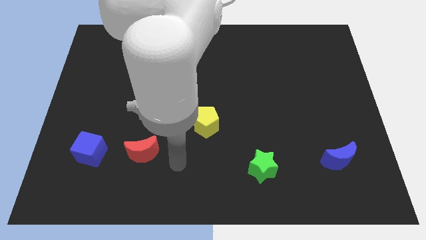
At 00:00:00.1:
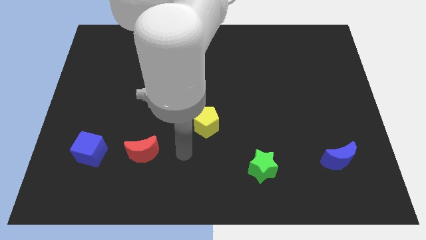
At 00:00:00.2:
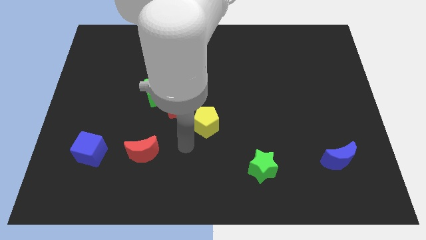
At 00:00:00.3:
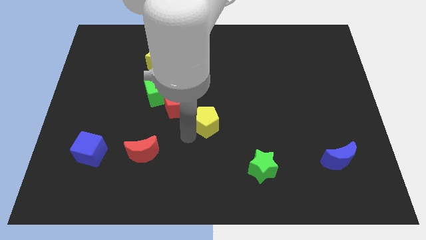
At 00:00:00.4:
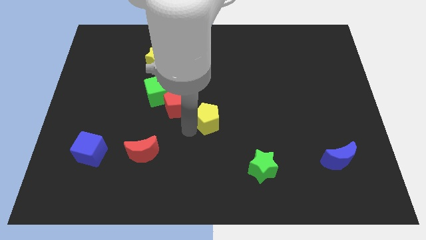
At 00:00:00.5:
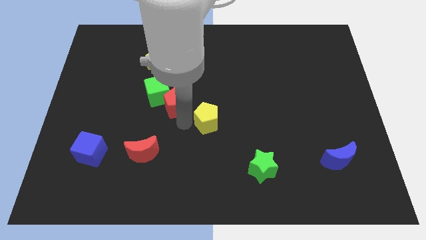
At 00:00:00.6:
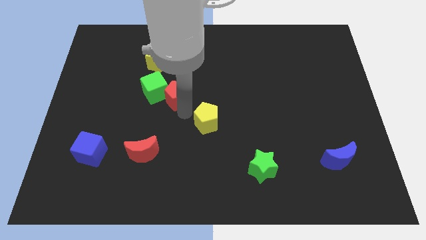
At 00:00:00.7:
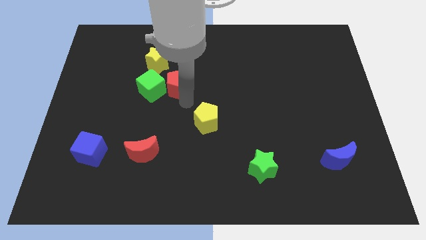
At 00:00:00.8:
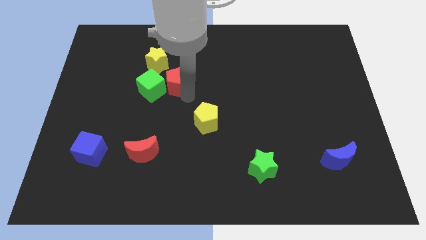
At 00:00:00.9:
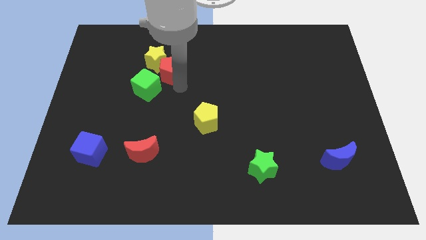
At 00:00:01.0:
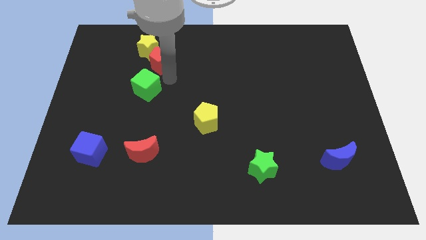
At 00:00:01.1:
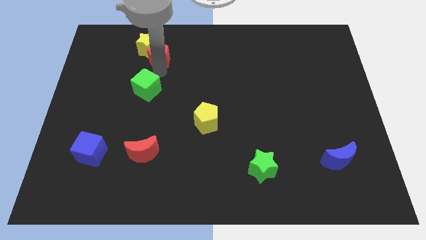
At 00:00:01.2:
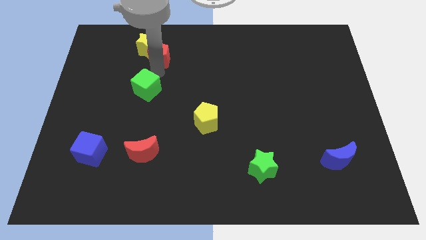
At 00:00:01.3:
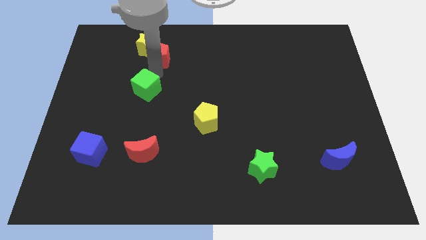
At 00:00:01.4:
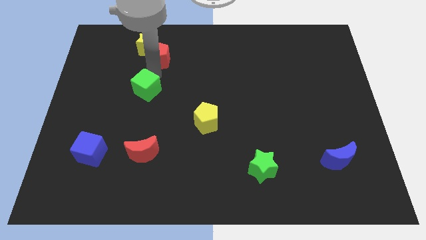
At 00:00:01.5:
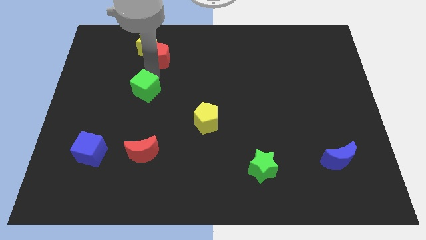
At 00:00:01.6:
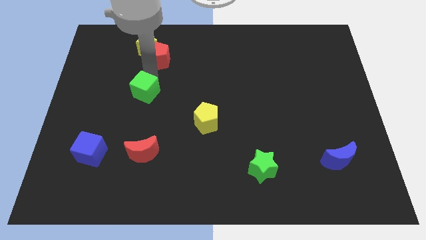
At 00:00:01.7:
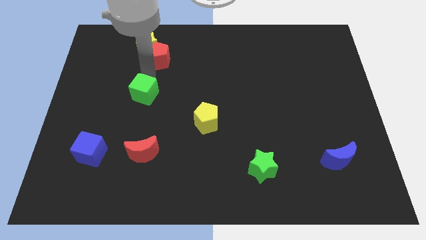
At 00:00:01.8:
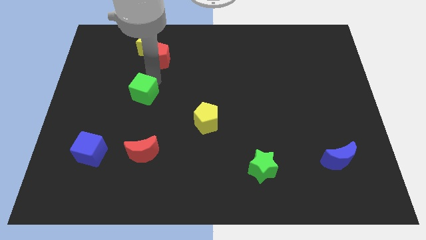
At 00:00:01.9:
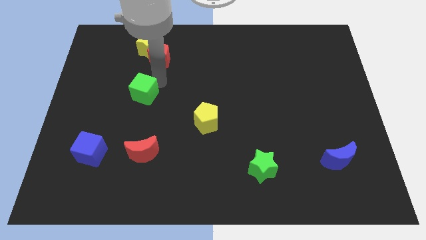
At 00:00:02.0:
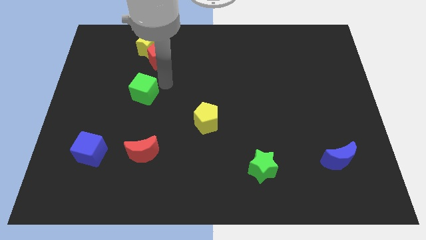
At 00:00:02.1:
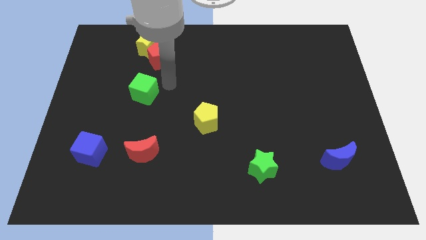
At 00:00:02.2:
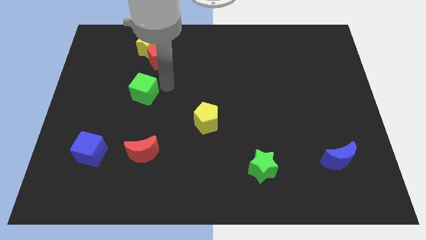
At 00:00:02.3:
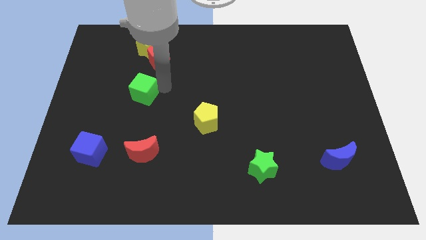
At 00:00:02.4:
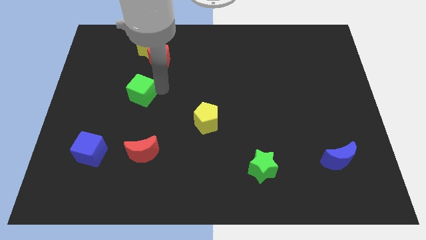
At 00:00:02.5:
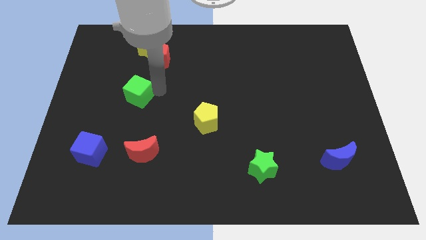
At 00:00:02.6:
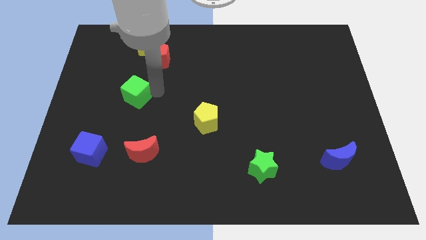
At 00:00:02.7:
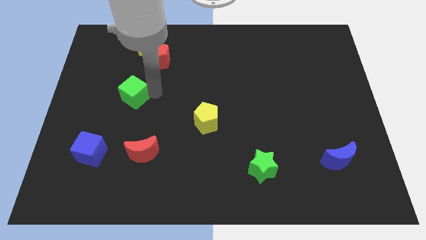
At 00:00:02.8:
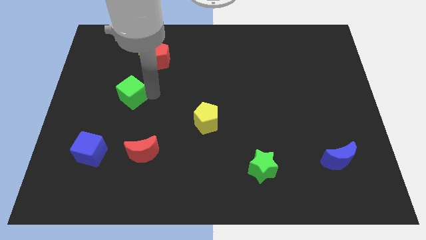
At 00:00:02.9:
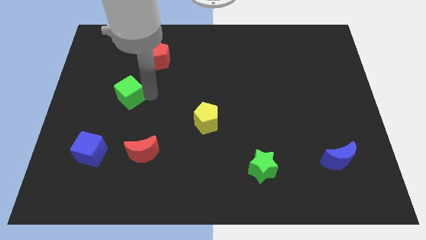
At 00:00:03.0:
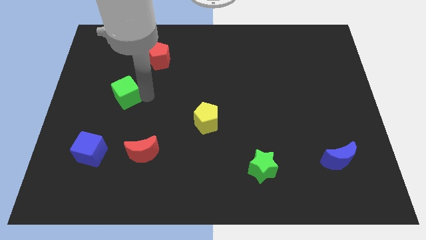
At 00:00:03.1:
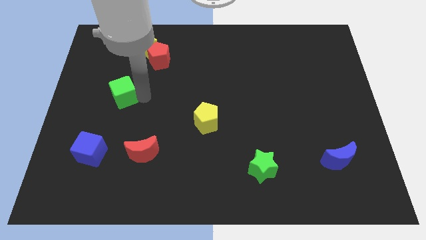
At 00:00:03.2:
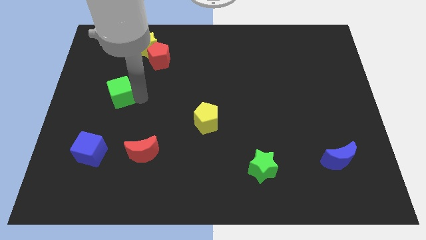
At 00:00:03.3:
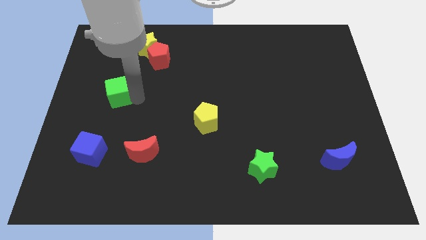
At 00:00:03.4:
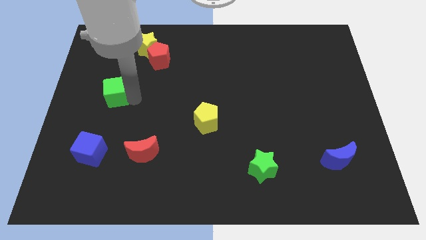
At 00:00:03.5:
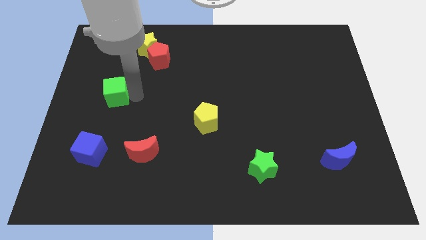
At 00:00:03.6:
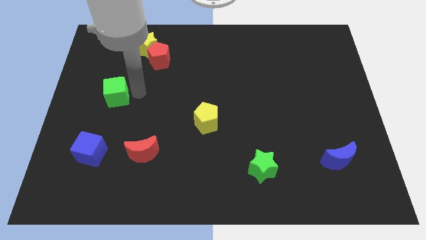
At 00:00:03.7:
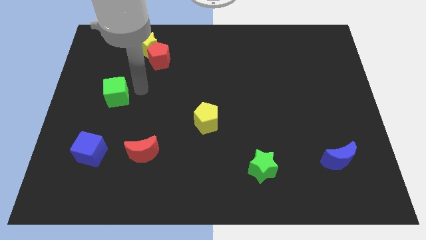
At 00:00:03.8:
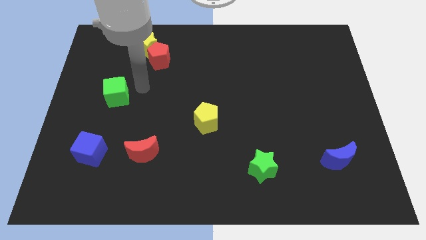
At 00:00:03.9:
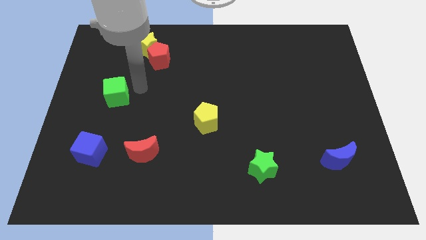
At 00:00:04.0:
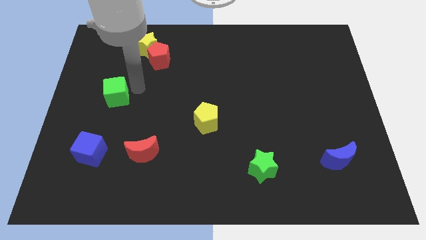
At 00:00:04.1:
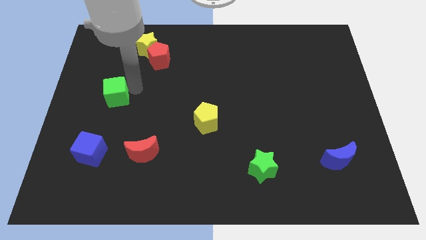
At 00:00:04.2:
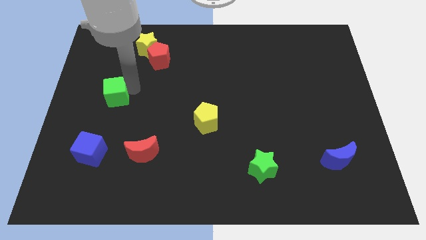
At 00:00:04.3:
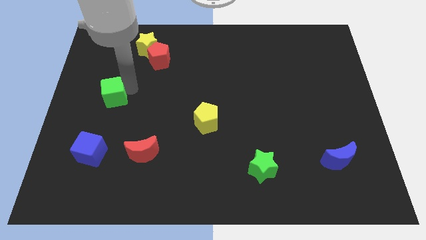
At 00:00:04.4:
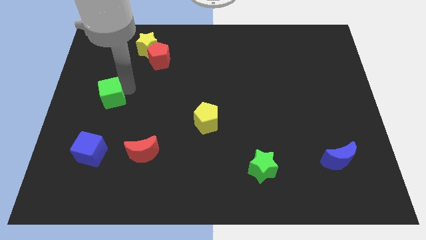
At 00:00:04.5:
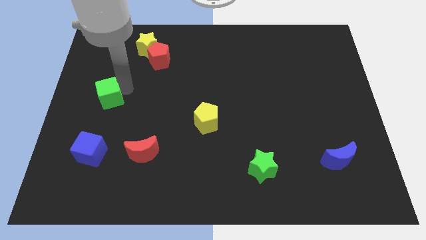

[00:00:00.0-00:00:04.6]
move the green cube to the center left

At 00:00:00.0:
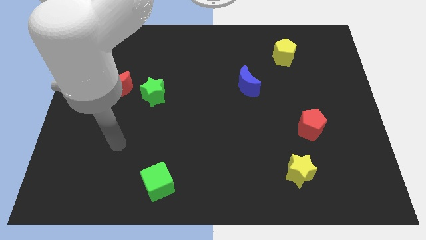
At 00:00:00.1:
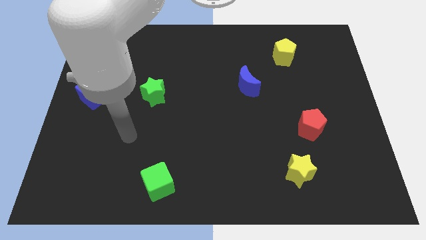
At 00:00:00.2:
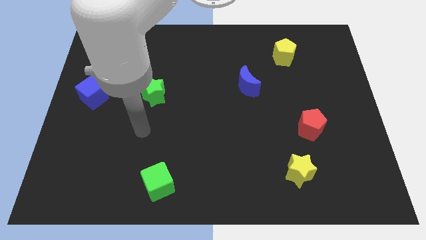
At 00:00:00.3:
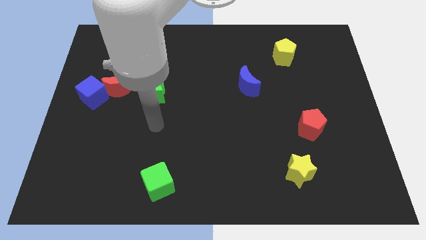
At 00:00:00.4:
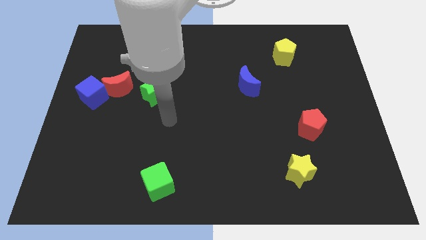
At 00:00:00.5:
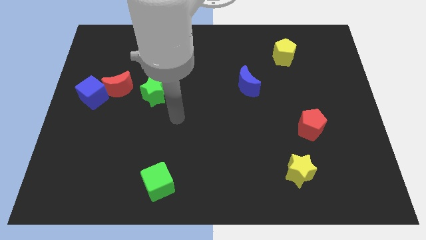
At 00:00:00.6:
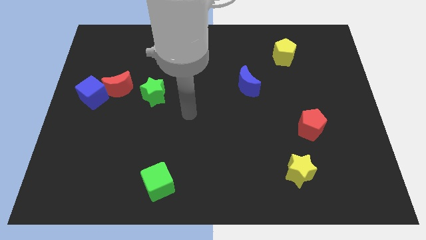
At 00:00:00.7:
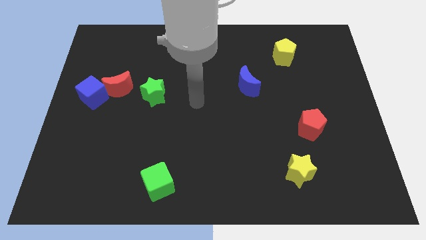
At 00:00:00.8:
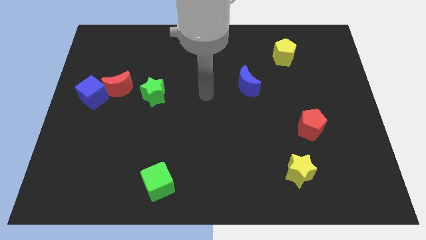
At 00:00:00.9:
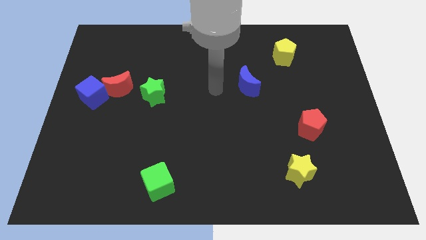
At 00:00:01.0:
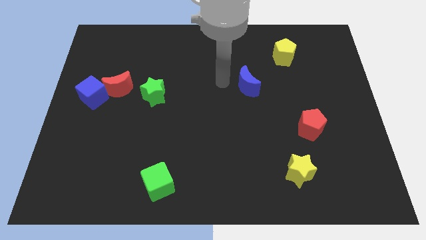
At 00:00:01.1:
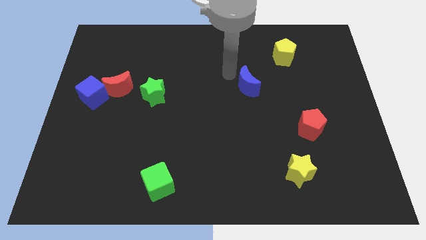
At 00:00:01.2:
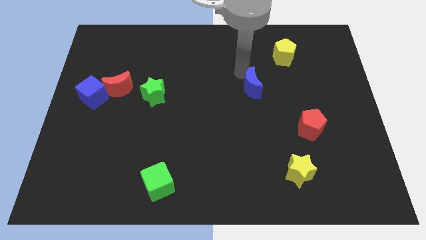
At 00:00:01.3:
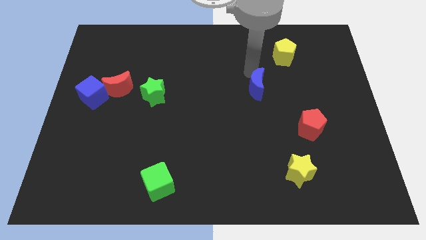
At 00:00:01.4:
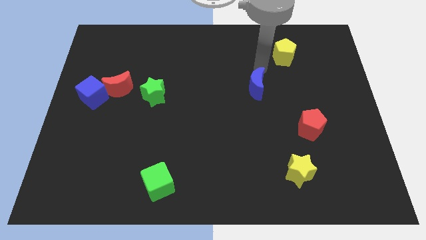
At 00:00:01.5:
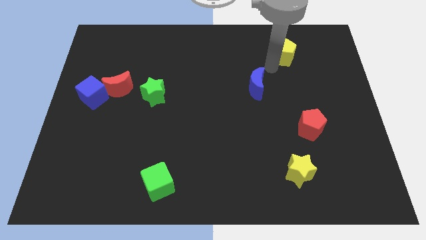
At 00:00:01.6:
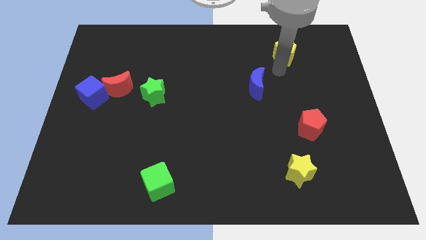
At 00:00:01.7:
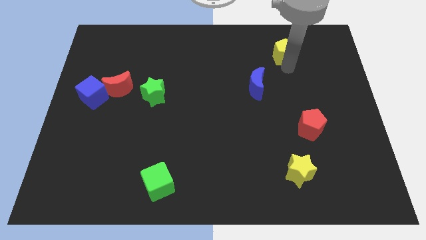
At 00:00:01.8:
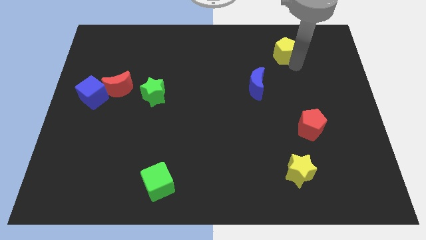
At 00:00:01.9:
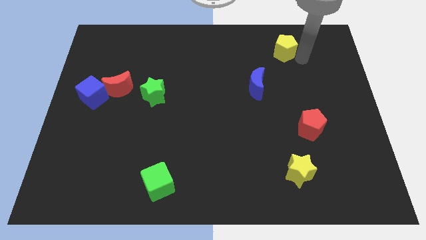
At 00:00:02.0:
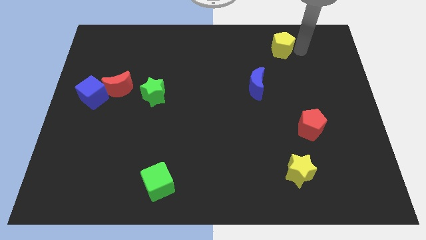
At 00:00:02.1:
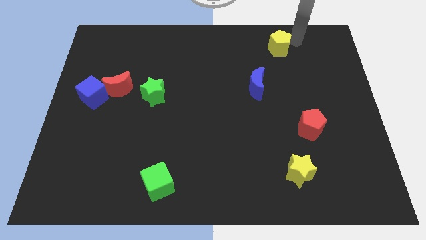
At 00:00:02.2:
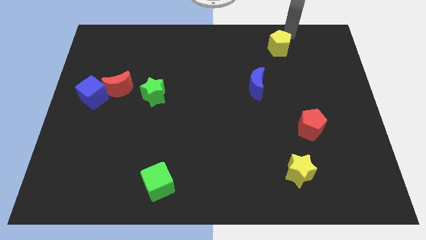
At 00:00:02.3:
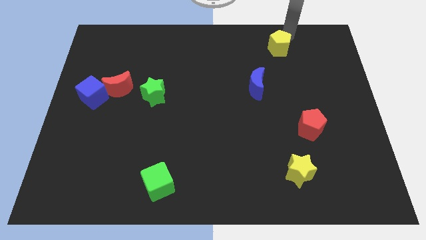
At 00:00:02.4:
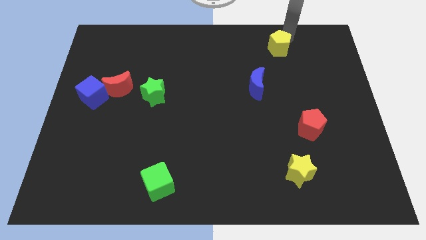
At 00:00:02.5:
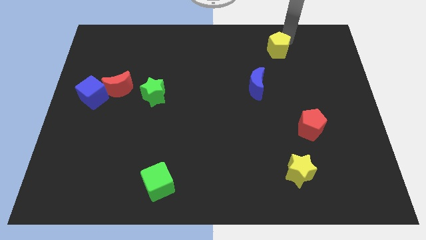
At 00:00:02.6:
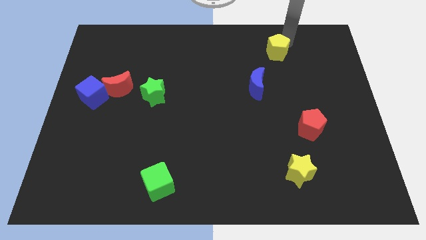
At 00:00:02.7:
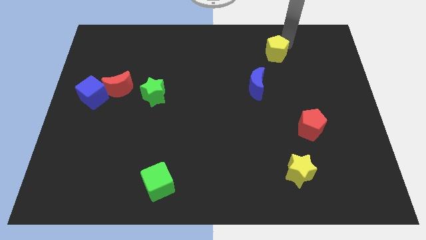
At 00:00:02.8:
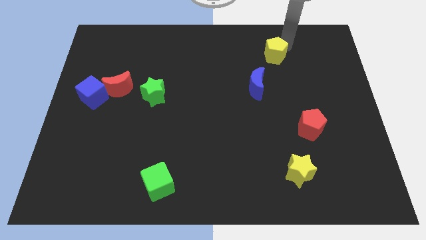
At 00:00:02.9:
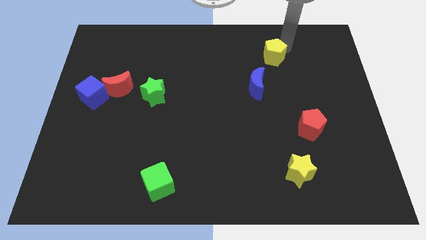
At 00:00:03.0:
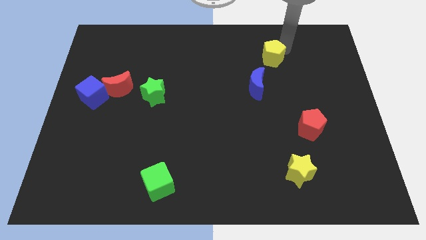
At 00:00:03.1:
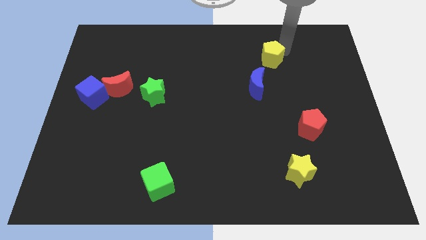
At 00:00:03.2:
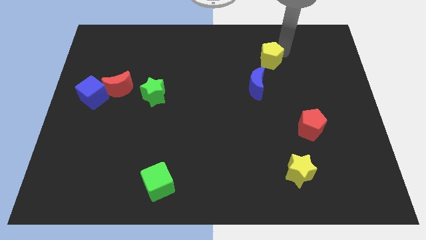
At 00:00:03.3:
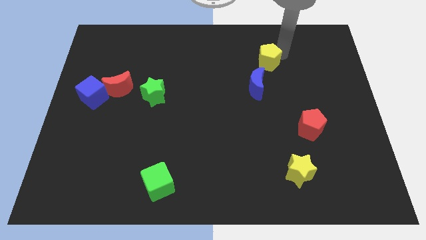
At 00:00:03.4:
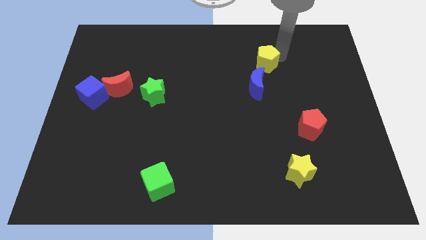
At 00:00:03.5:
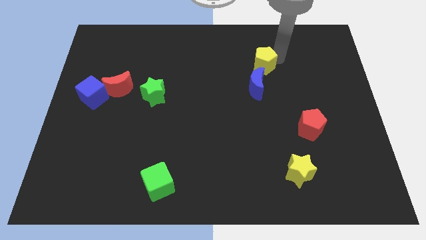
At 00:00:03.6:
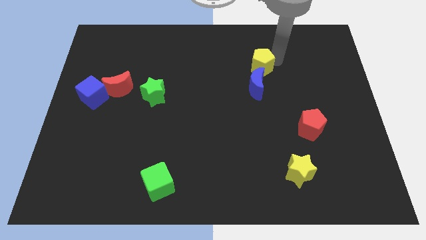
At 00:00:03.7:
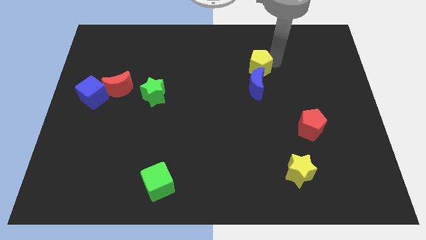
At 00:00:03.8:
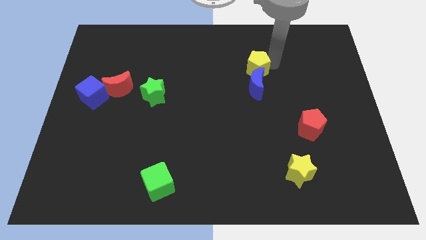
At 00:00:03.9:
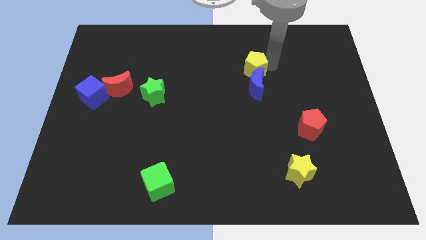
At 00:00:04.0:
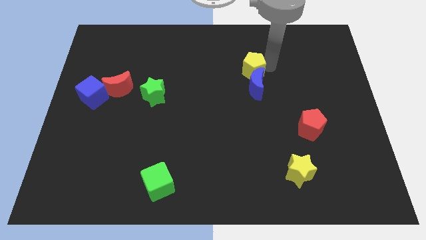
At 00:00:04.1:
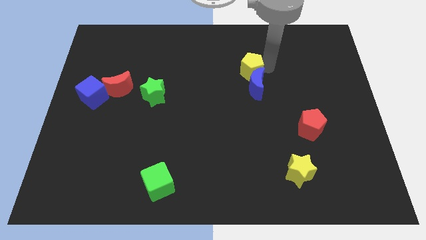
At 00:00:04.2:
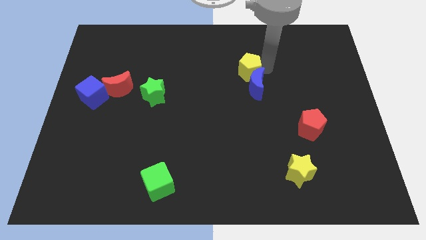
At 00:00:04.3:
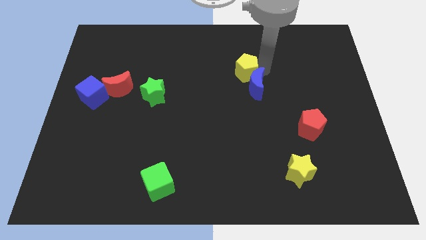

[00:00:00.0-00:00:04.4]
slide the yellow pentagon to the middle of the board
